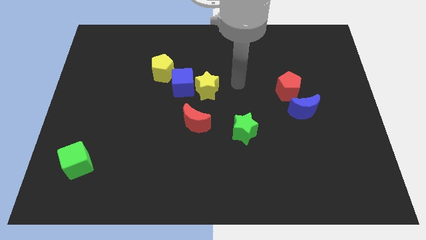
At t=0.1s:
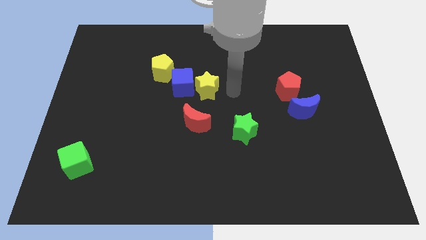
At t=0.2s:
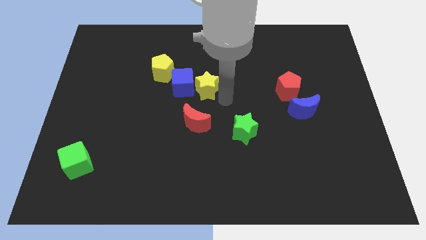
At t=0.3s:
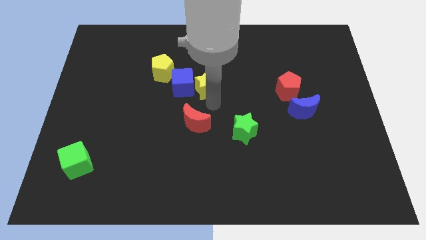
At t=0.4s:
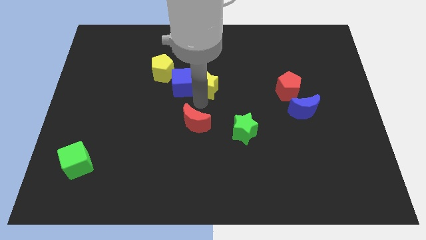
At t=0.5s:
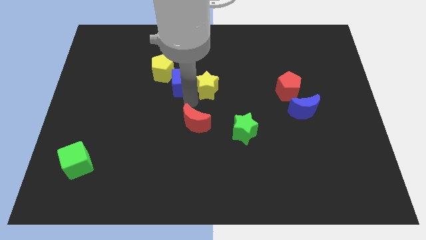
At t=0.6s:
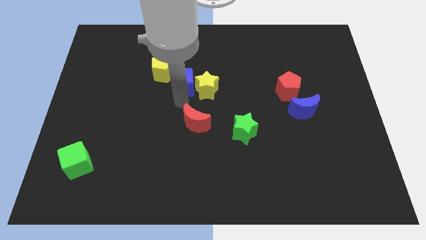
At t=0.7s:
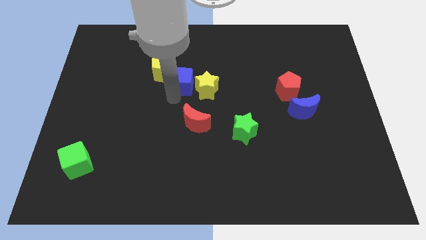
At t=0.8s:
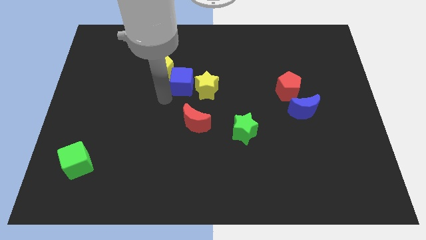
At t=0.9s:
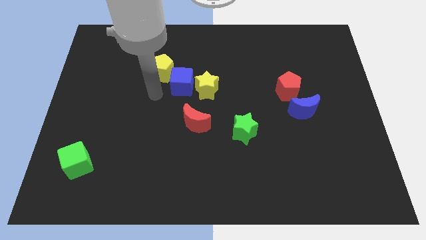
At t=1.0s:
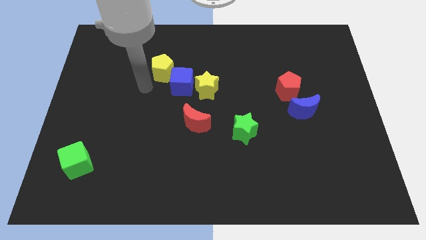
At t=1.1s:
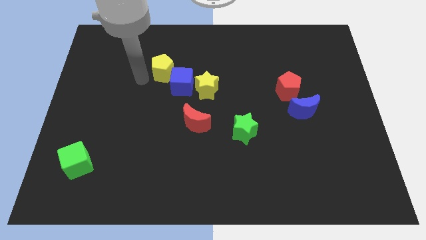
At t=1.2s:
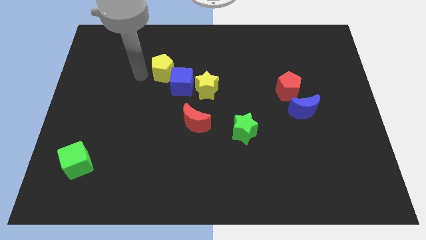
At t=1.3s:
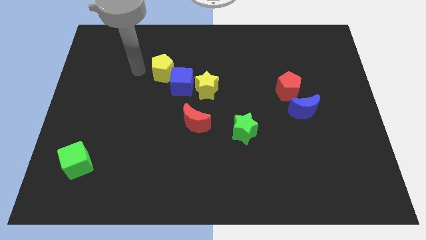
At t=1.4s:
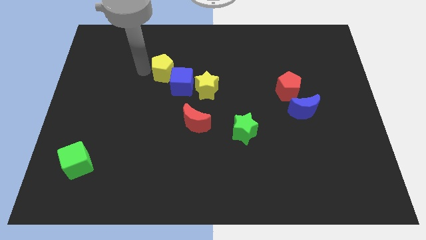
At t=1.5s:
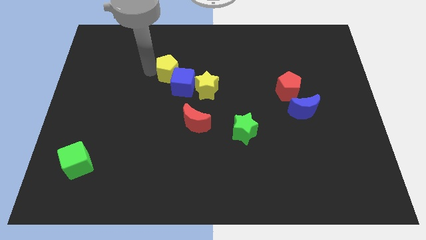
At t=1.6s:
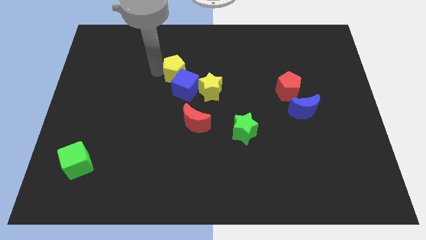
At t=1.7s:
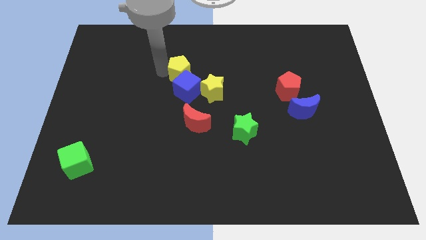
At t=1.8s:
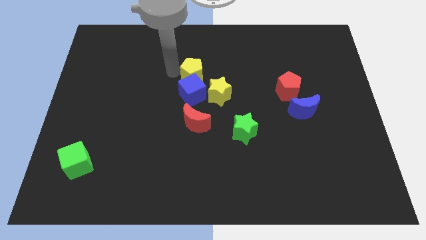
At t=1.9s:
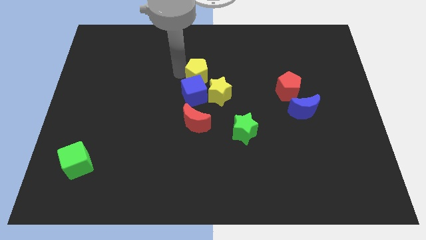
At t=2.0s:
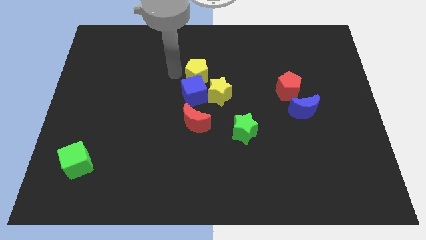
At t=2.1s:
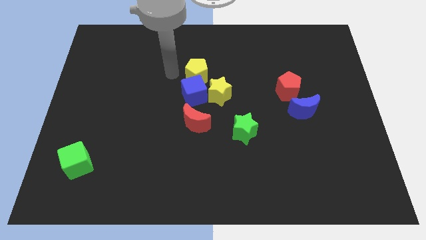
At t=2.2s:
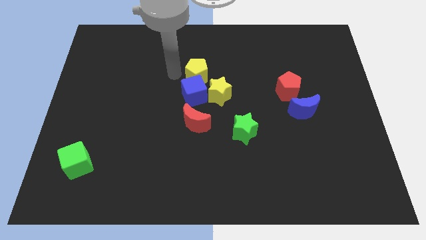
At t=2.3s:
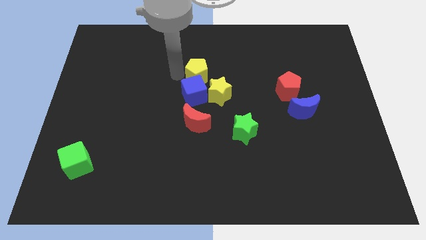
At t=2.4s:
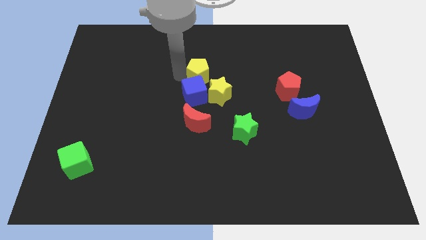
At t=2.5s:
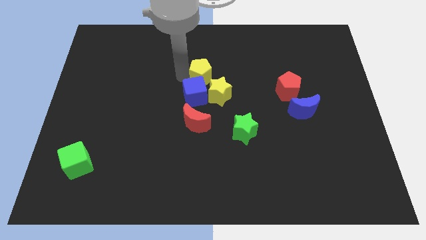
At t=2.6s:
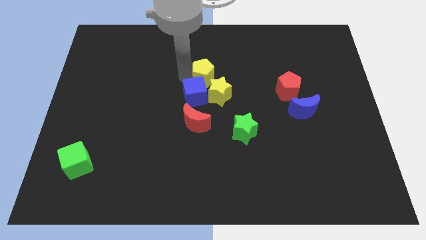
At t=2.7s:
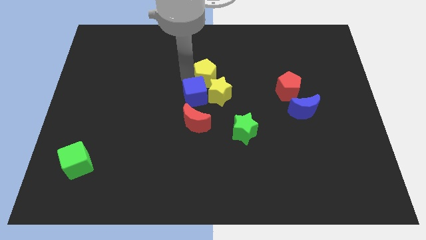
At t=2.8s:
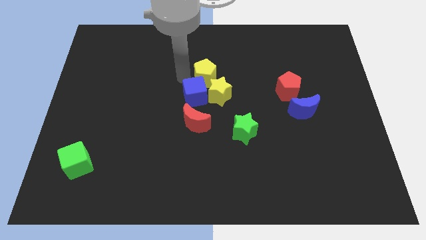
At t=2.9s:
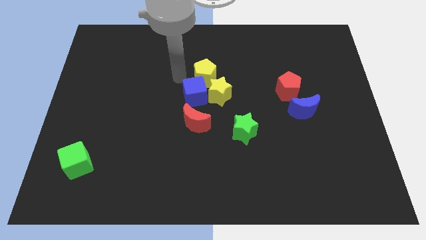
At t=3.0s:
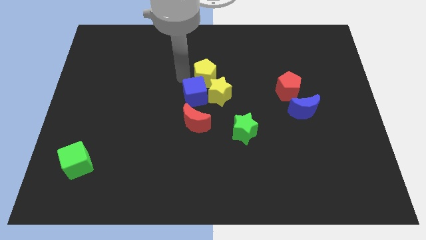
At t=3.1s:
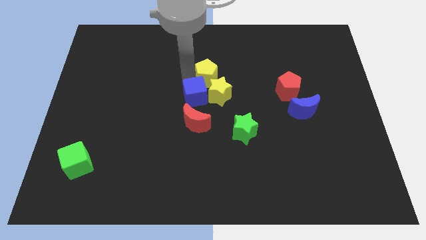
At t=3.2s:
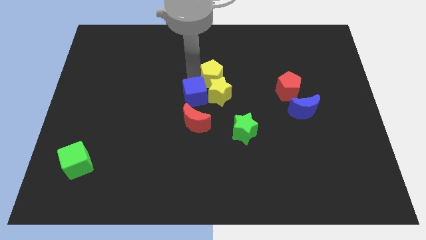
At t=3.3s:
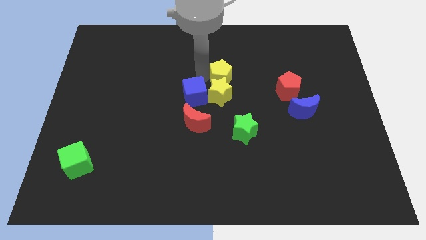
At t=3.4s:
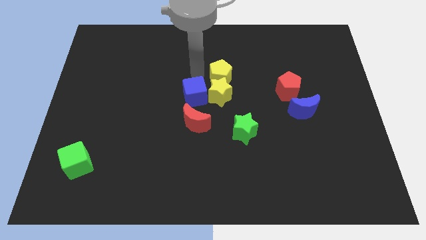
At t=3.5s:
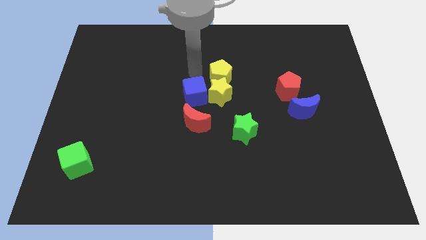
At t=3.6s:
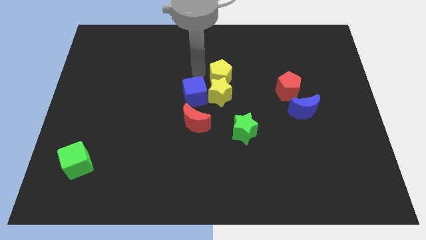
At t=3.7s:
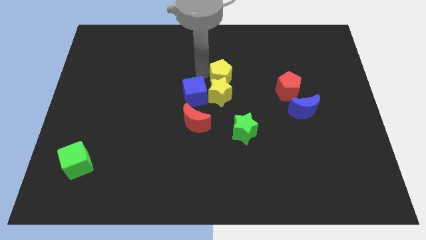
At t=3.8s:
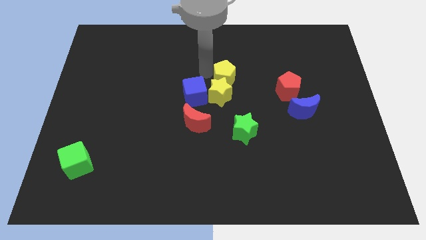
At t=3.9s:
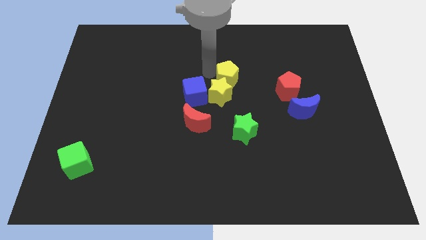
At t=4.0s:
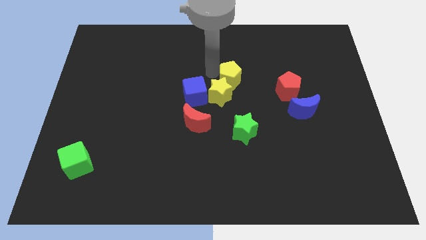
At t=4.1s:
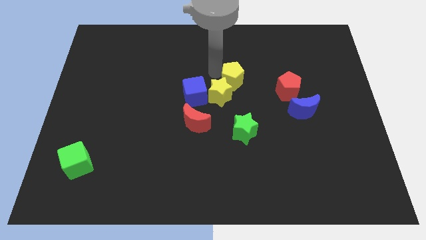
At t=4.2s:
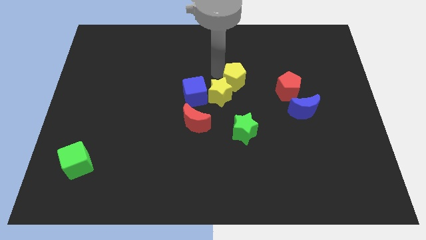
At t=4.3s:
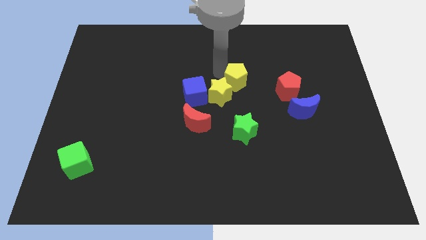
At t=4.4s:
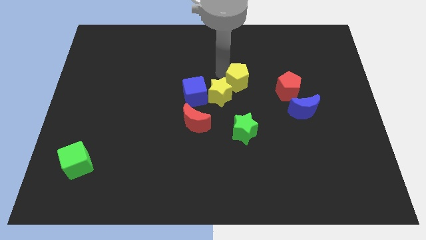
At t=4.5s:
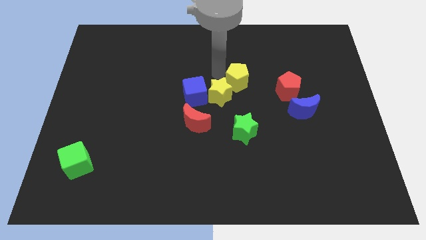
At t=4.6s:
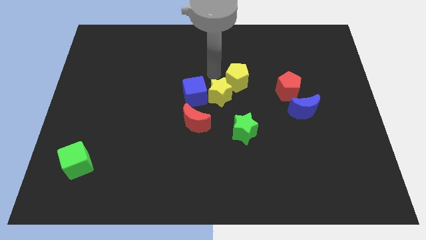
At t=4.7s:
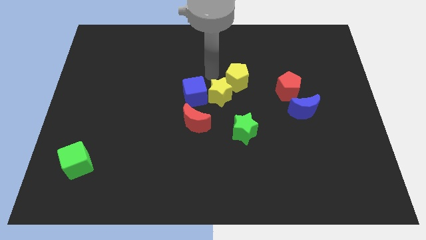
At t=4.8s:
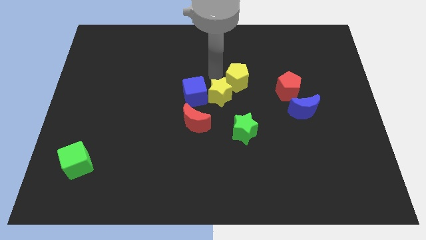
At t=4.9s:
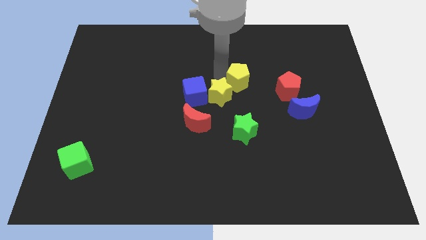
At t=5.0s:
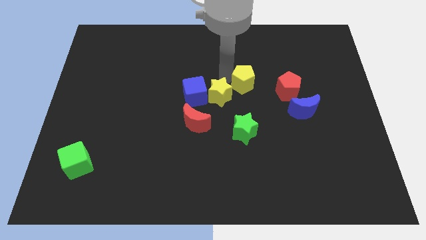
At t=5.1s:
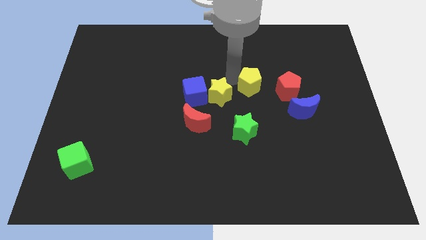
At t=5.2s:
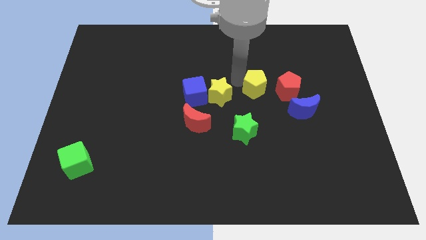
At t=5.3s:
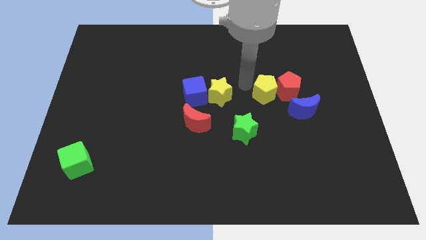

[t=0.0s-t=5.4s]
put the yellow pentagon towards the red pentagon

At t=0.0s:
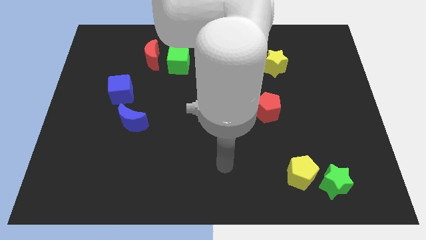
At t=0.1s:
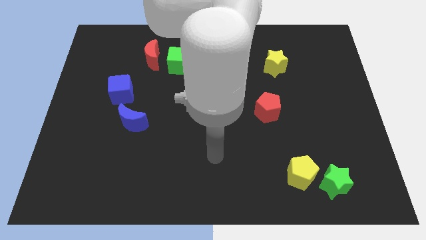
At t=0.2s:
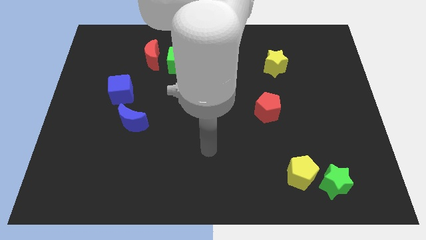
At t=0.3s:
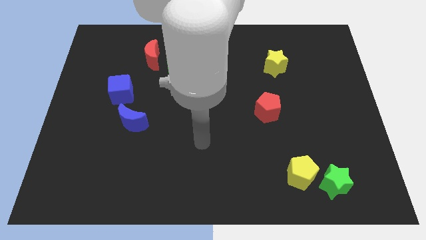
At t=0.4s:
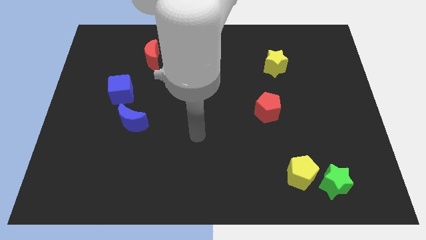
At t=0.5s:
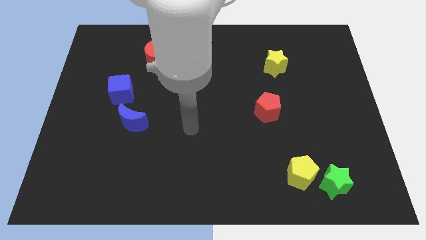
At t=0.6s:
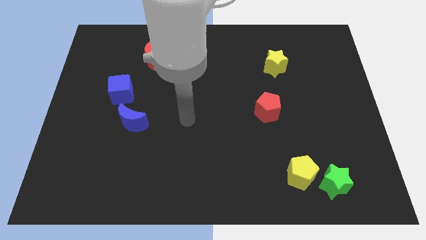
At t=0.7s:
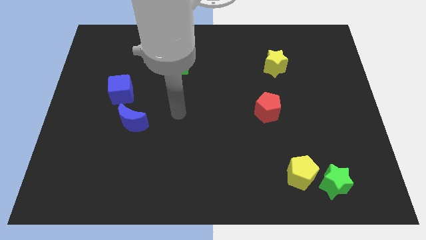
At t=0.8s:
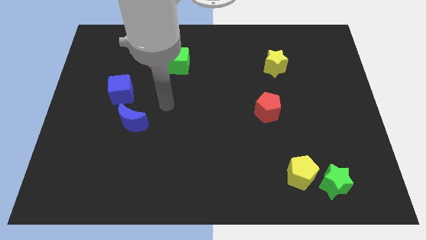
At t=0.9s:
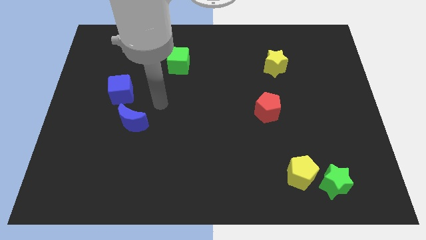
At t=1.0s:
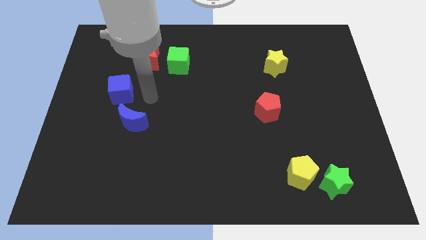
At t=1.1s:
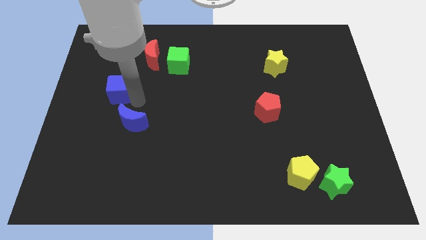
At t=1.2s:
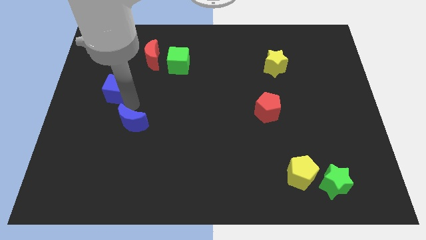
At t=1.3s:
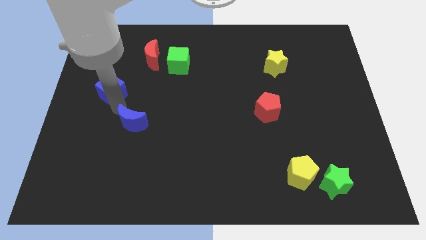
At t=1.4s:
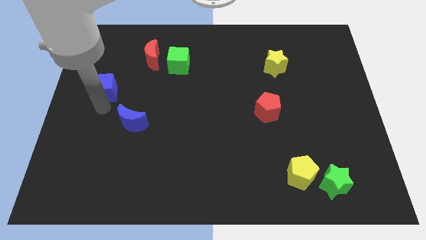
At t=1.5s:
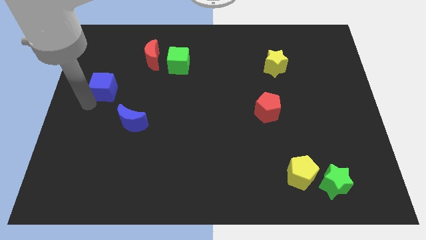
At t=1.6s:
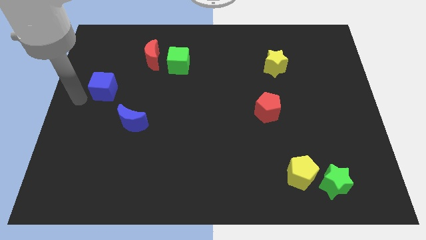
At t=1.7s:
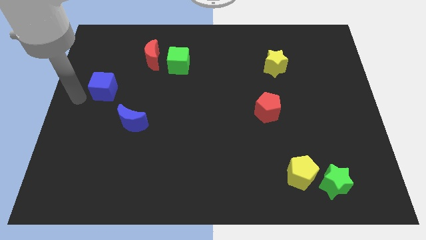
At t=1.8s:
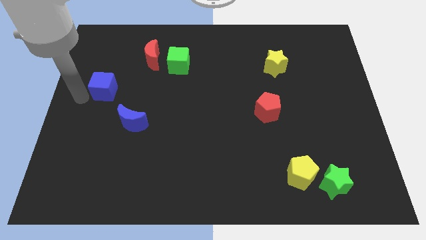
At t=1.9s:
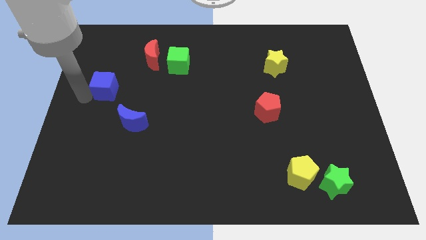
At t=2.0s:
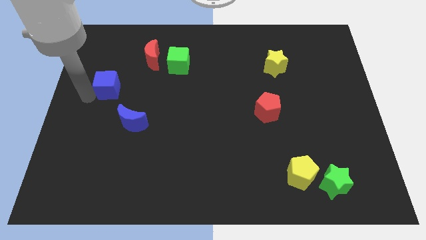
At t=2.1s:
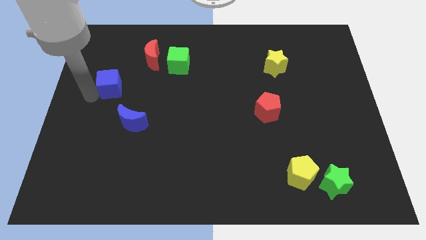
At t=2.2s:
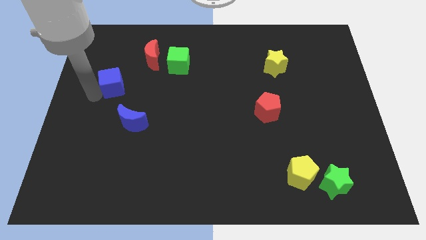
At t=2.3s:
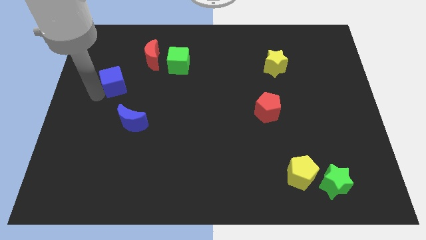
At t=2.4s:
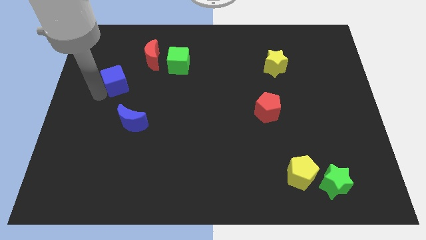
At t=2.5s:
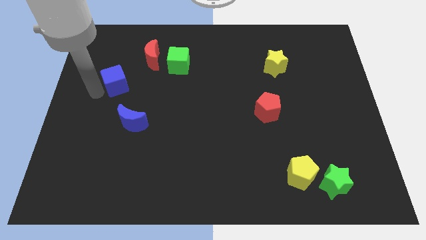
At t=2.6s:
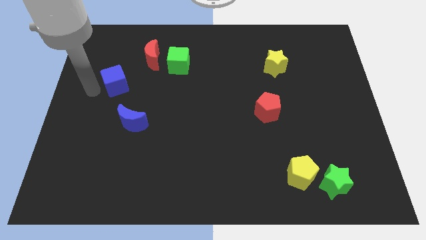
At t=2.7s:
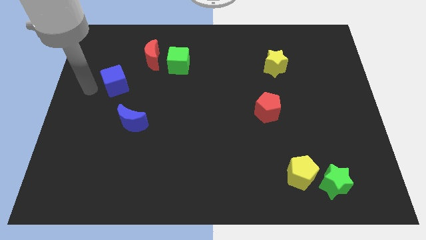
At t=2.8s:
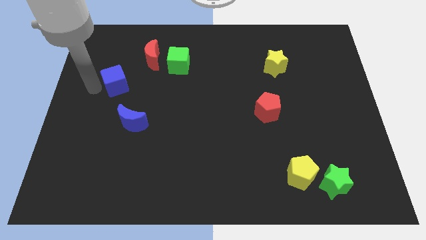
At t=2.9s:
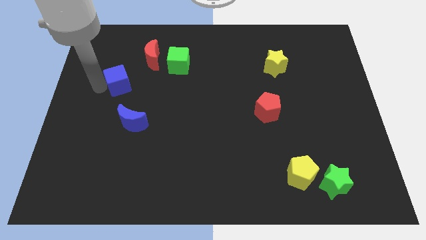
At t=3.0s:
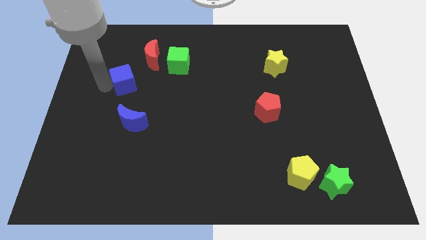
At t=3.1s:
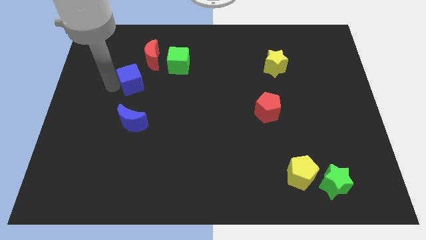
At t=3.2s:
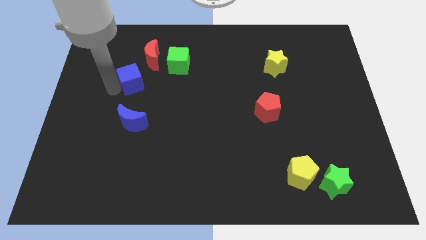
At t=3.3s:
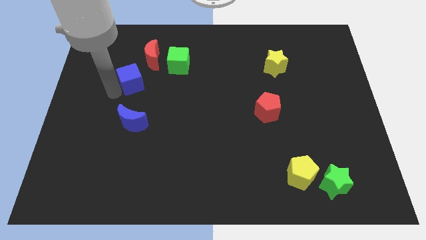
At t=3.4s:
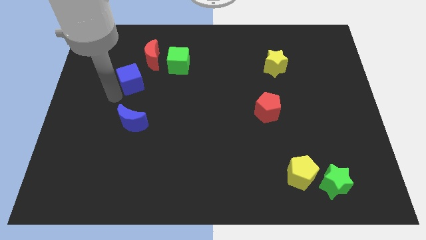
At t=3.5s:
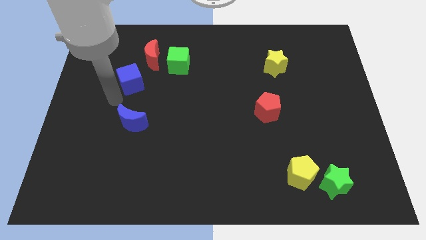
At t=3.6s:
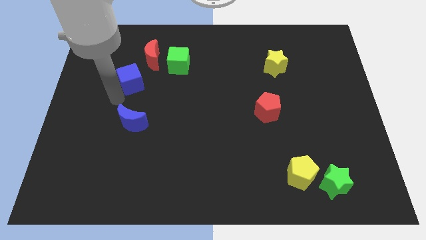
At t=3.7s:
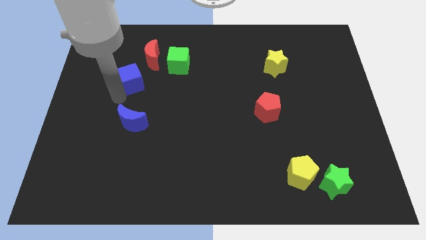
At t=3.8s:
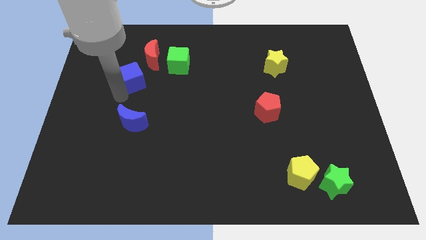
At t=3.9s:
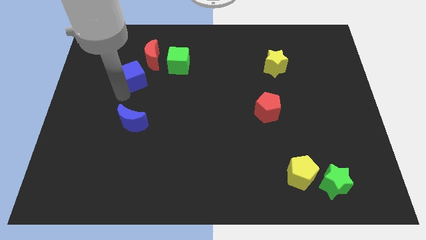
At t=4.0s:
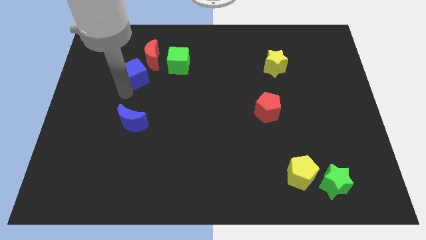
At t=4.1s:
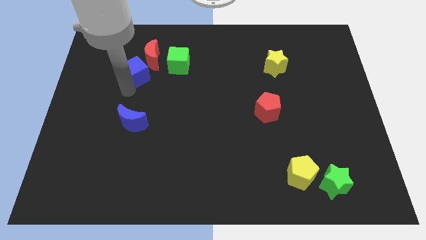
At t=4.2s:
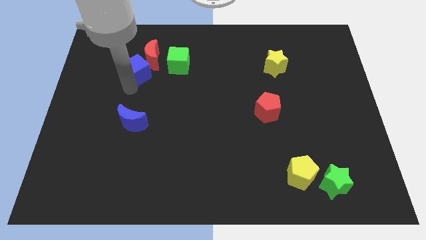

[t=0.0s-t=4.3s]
move the blue cube towards the red moon
